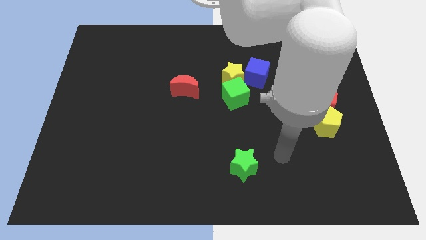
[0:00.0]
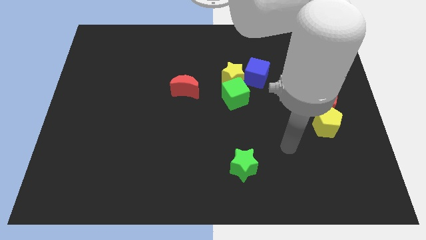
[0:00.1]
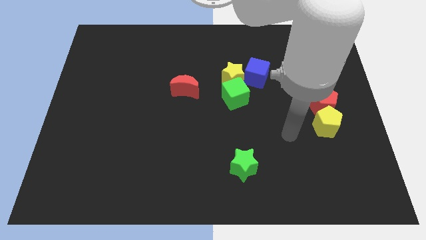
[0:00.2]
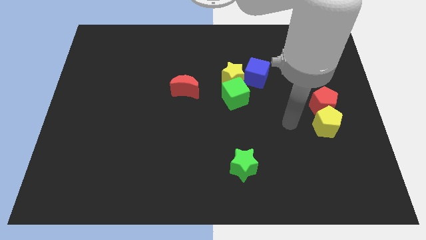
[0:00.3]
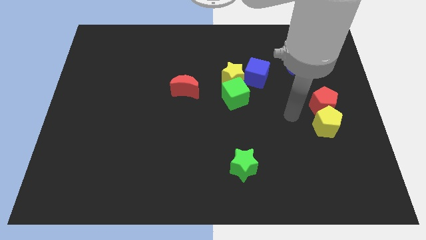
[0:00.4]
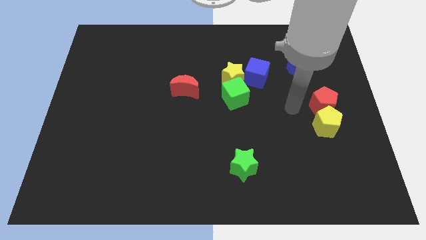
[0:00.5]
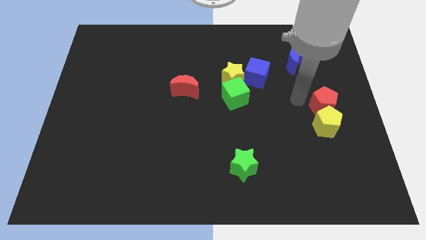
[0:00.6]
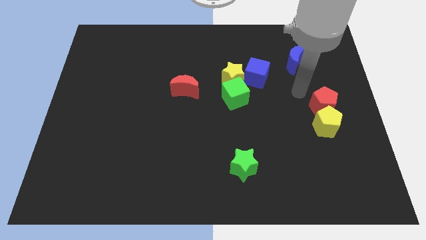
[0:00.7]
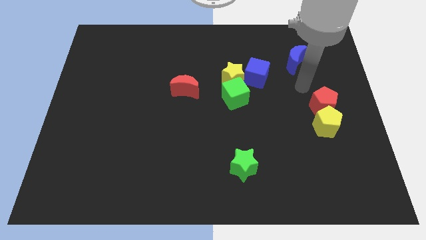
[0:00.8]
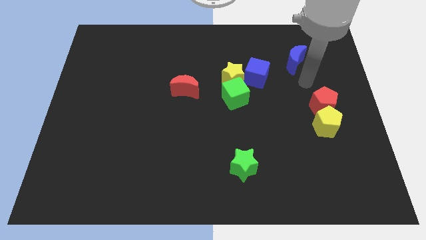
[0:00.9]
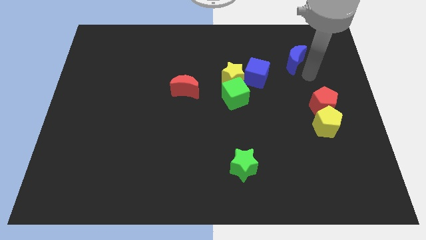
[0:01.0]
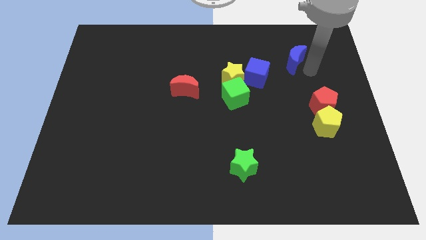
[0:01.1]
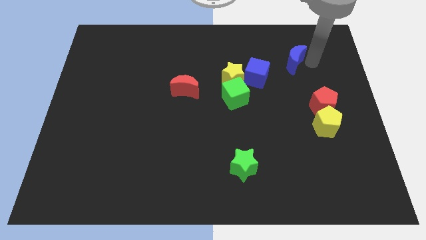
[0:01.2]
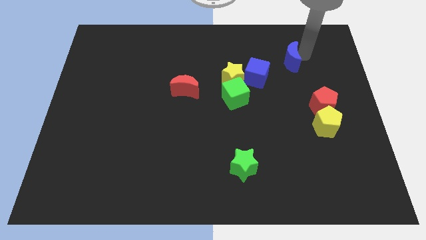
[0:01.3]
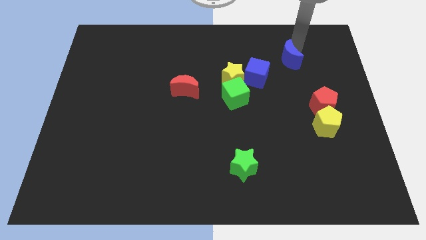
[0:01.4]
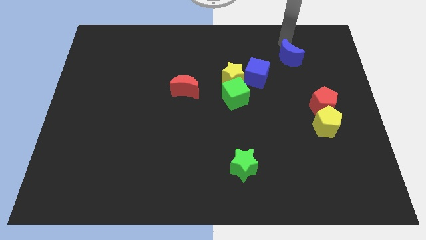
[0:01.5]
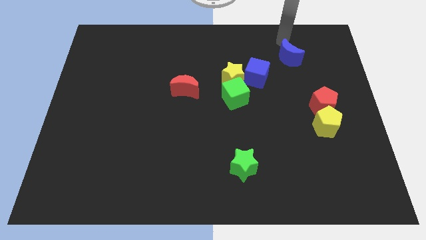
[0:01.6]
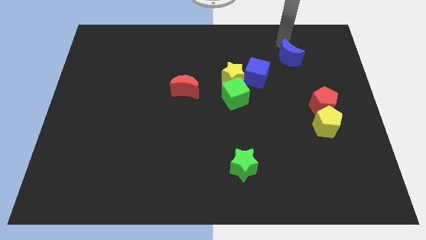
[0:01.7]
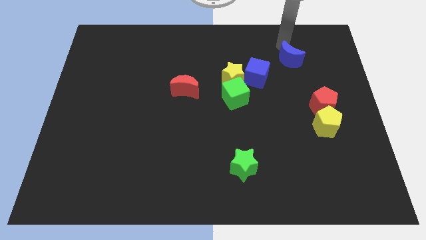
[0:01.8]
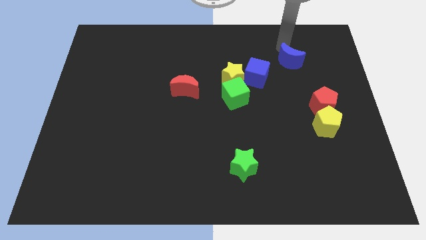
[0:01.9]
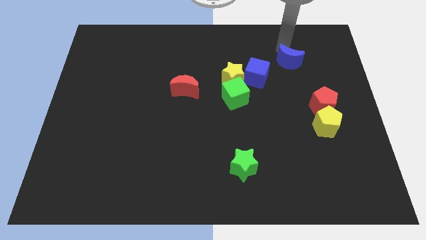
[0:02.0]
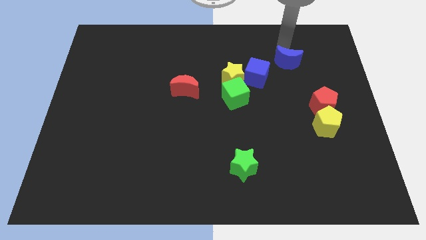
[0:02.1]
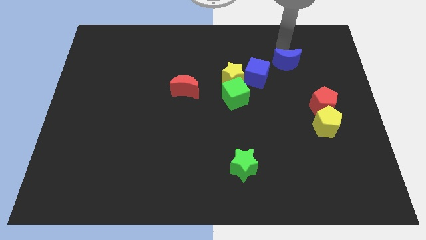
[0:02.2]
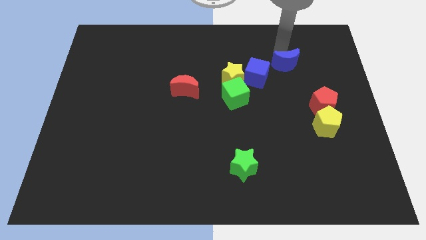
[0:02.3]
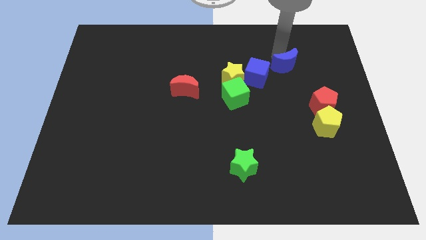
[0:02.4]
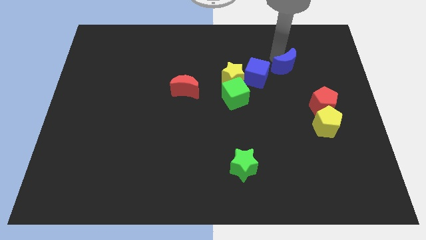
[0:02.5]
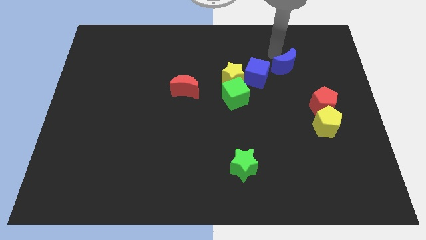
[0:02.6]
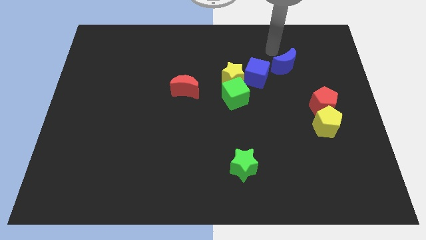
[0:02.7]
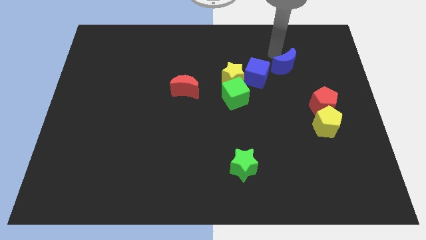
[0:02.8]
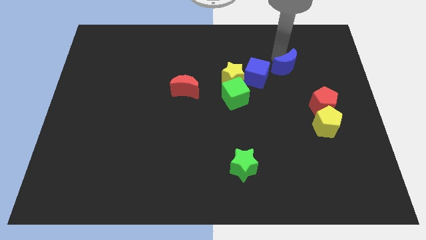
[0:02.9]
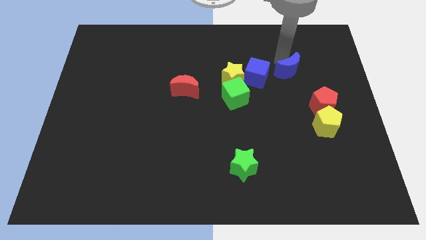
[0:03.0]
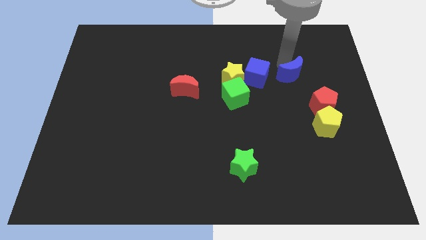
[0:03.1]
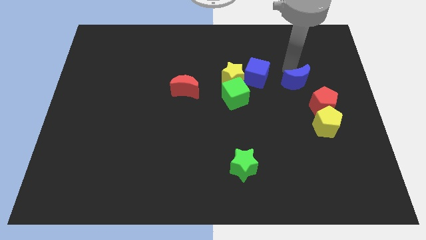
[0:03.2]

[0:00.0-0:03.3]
slightly move the blue moon downwards

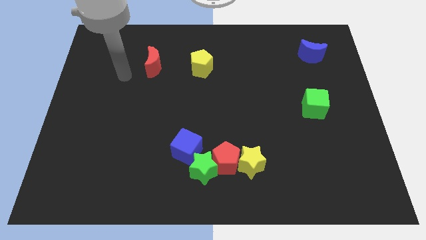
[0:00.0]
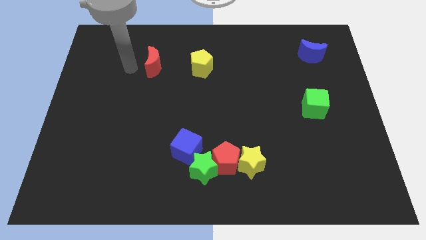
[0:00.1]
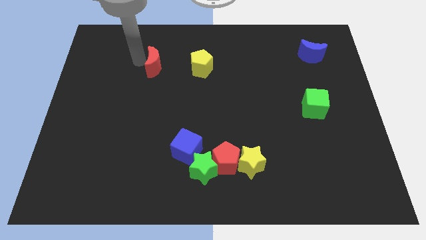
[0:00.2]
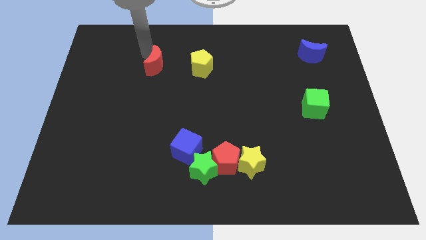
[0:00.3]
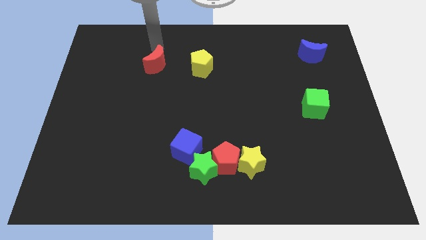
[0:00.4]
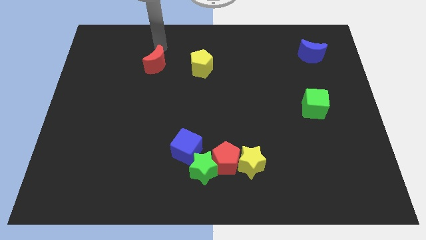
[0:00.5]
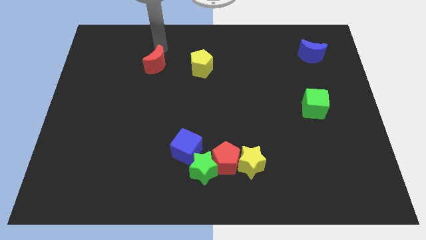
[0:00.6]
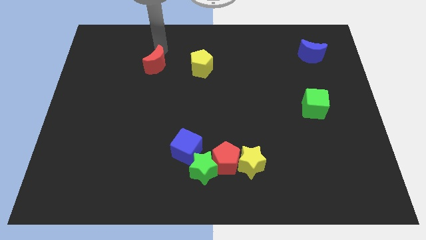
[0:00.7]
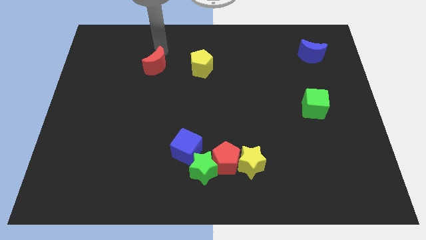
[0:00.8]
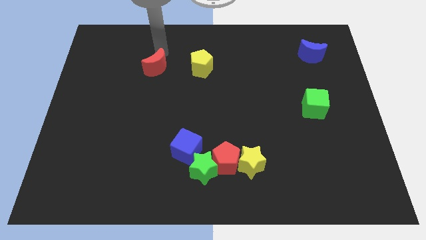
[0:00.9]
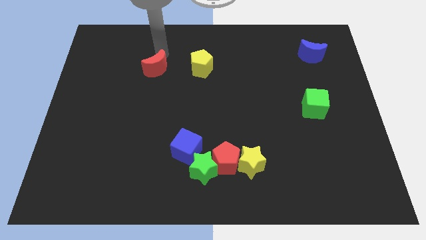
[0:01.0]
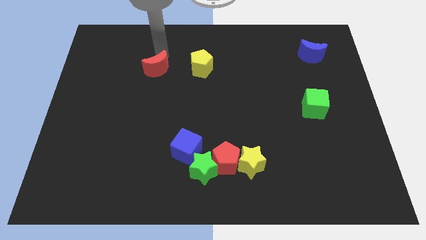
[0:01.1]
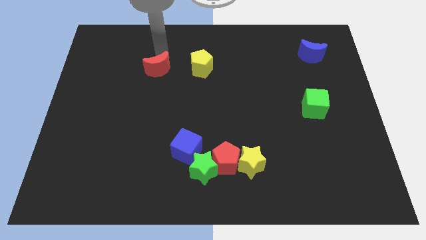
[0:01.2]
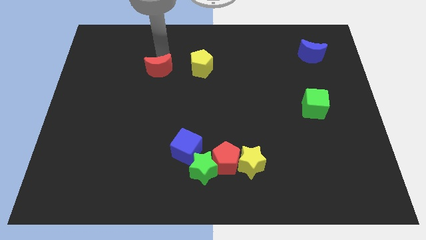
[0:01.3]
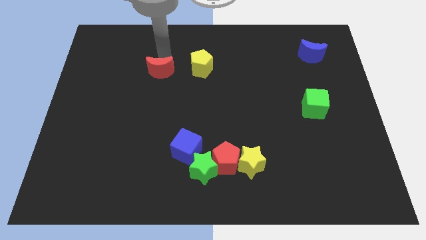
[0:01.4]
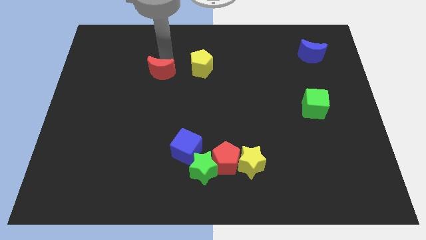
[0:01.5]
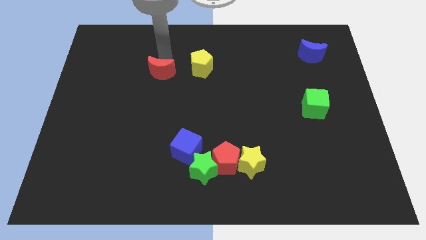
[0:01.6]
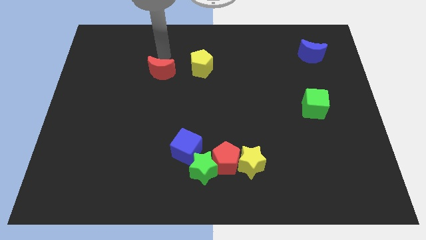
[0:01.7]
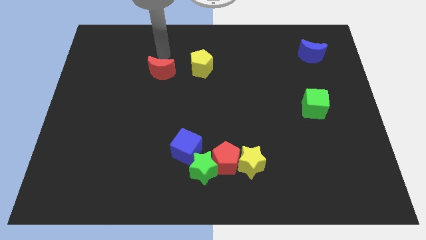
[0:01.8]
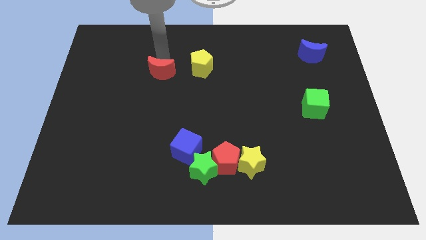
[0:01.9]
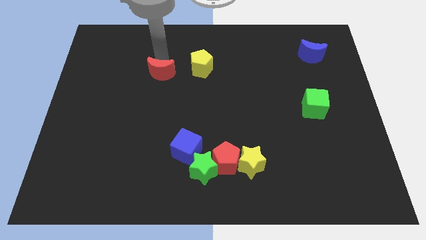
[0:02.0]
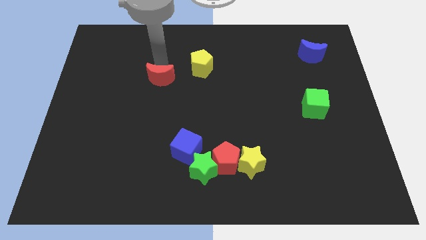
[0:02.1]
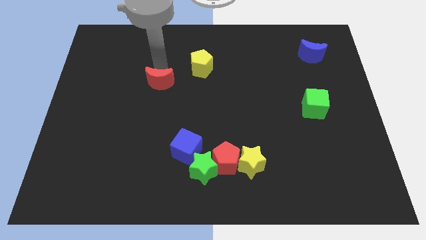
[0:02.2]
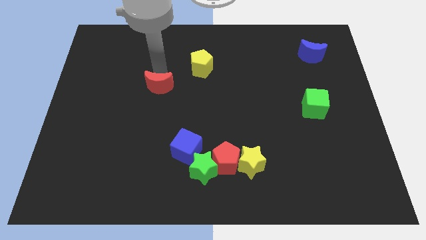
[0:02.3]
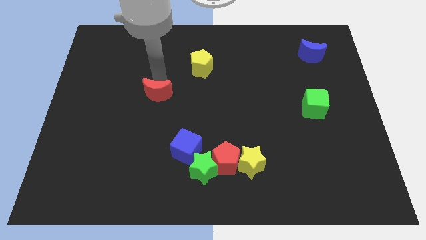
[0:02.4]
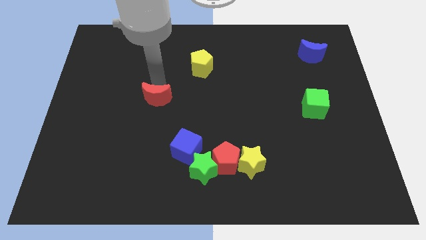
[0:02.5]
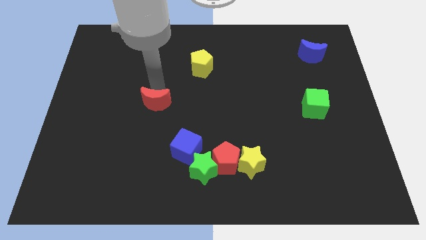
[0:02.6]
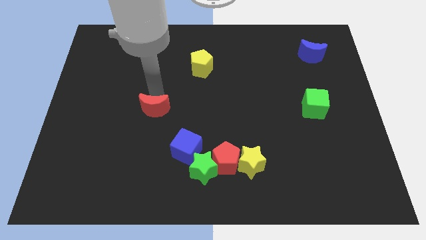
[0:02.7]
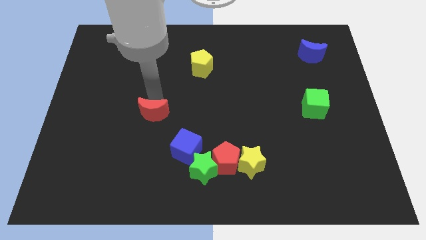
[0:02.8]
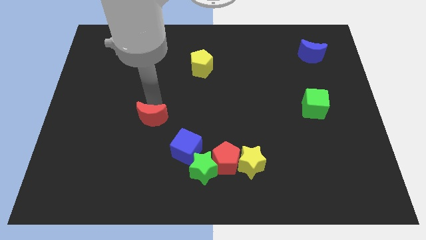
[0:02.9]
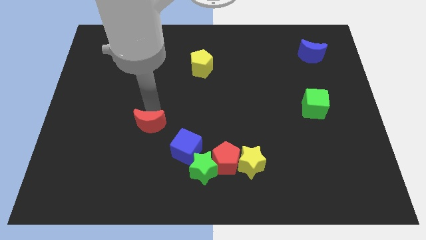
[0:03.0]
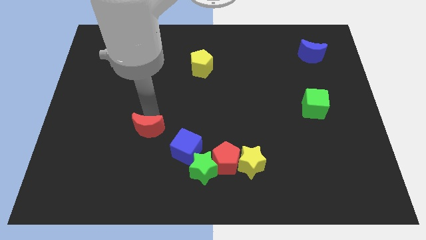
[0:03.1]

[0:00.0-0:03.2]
move the red moon downwards

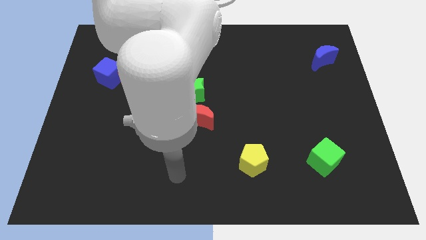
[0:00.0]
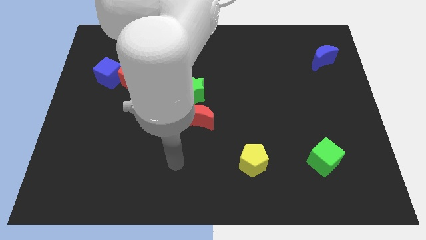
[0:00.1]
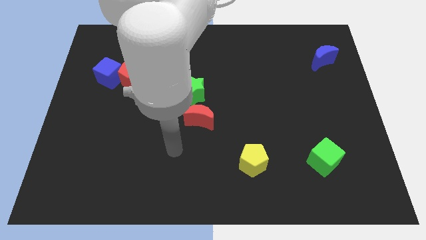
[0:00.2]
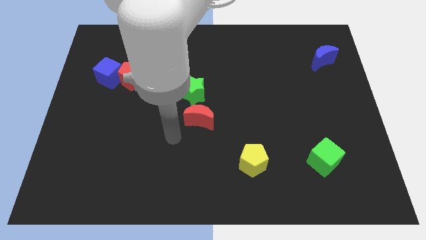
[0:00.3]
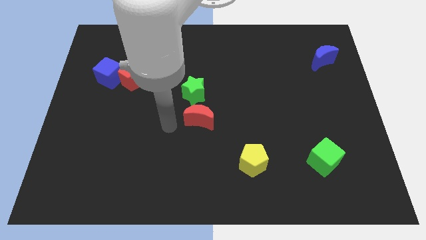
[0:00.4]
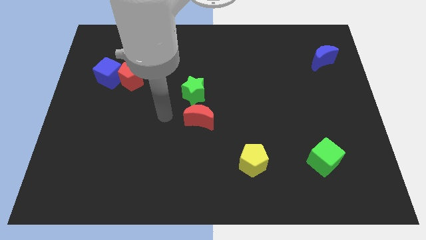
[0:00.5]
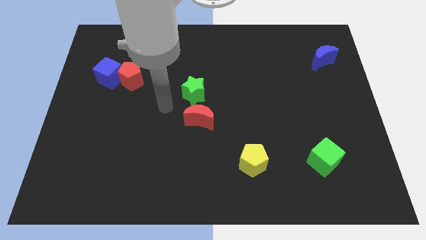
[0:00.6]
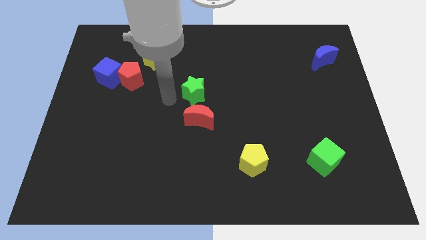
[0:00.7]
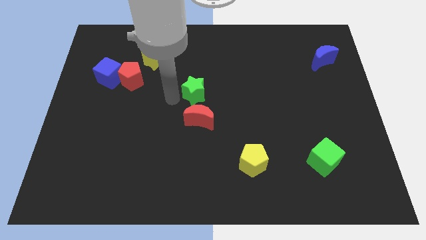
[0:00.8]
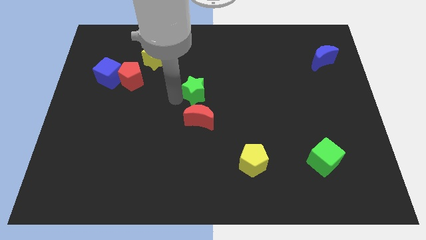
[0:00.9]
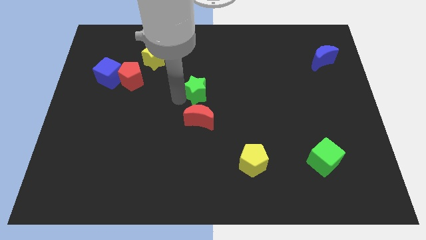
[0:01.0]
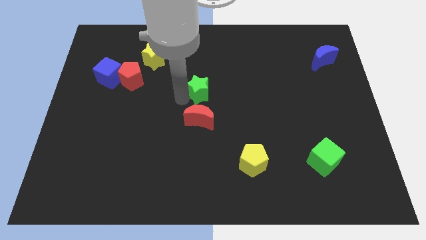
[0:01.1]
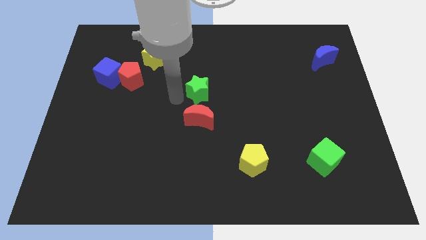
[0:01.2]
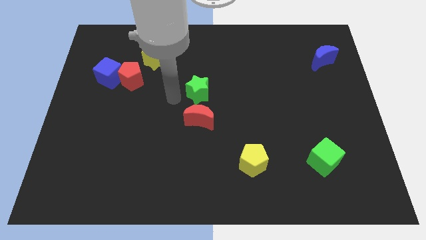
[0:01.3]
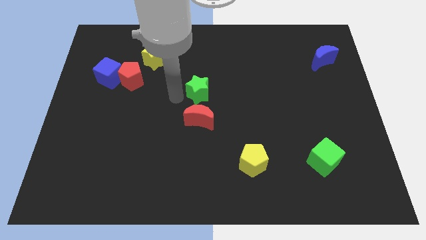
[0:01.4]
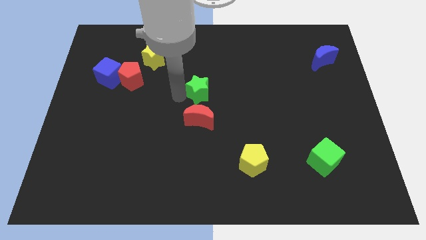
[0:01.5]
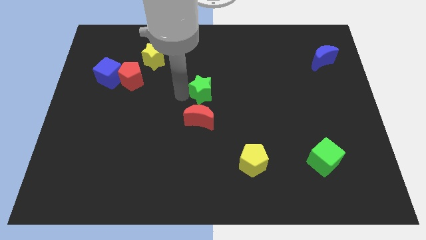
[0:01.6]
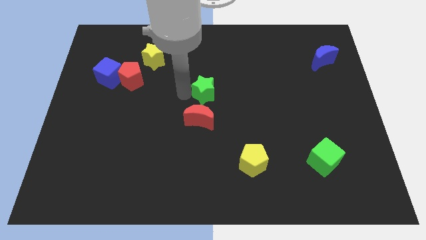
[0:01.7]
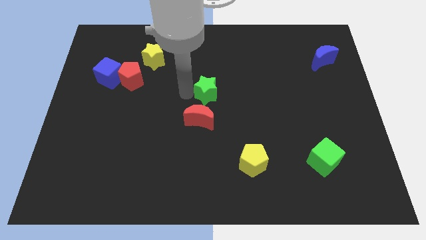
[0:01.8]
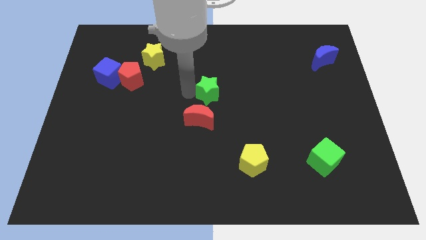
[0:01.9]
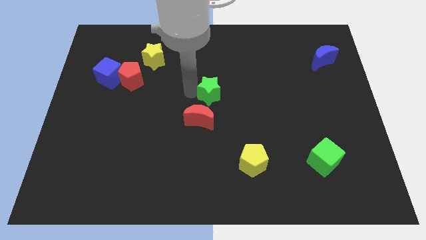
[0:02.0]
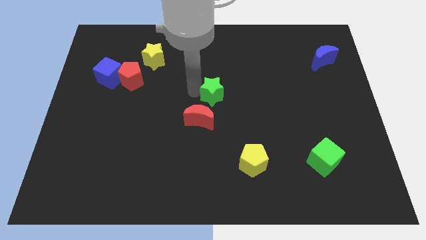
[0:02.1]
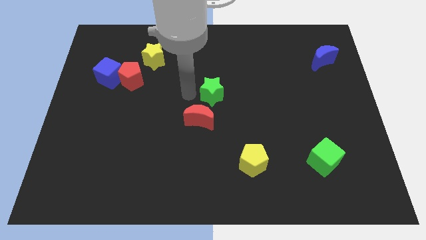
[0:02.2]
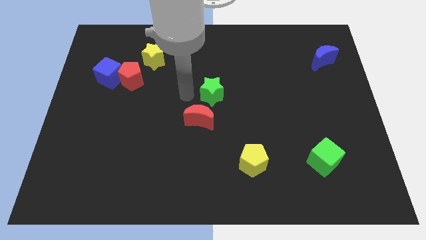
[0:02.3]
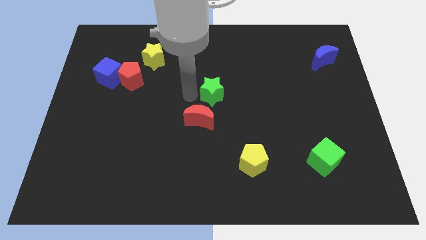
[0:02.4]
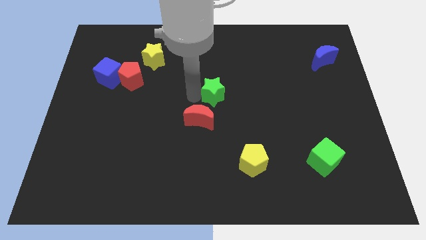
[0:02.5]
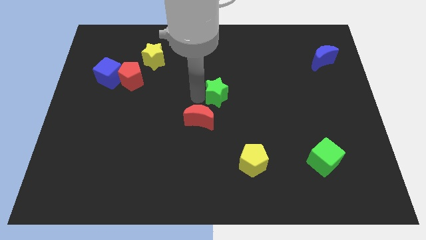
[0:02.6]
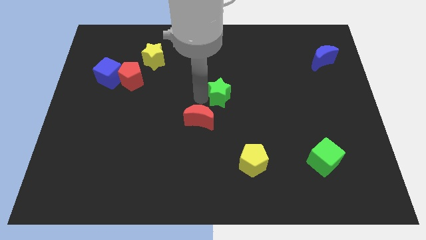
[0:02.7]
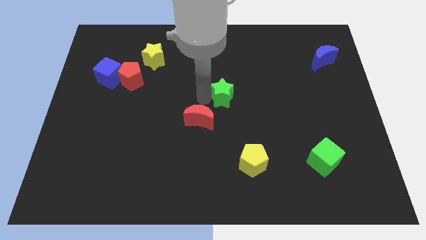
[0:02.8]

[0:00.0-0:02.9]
slide the green star slightly to the right
